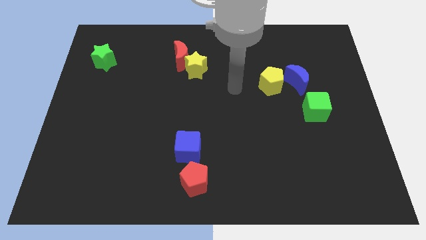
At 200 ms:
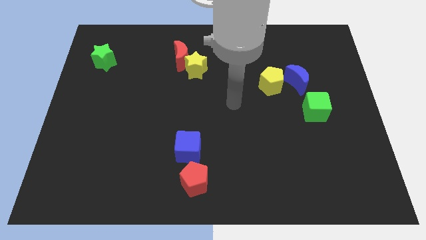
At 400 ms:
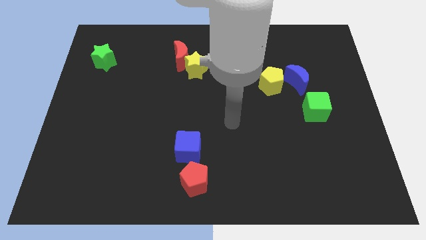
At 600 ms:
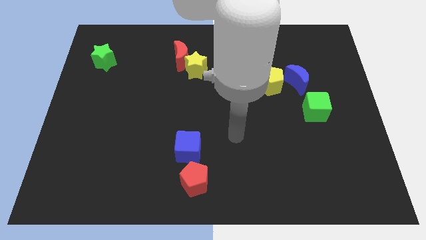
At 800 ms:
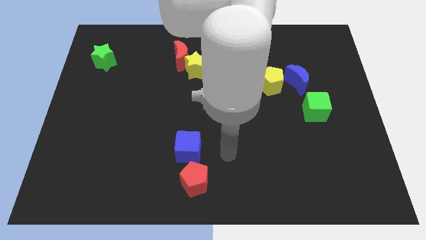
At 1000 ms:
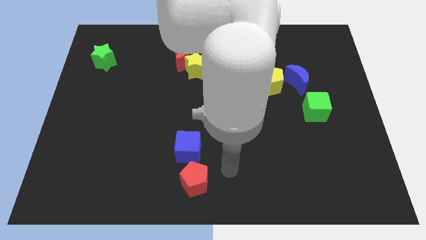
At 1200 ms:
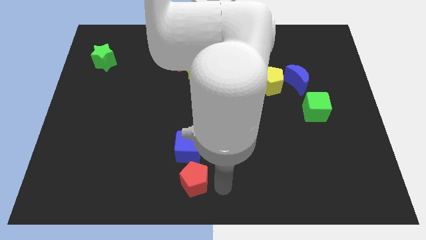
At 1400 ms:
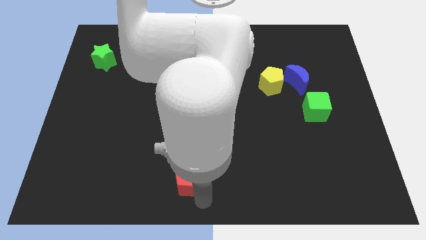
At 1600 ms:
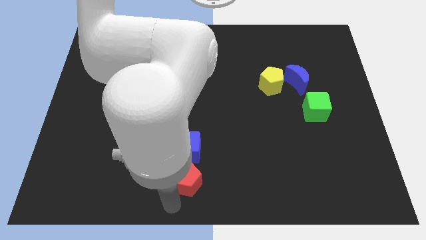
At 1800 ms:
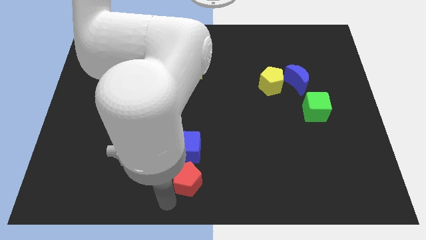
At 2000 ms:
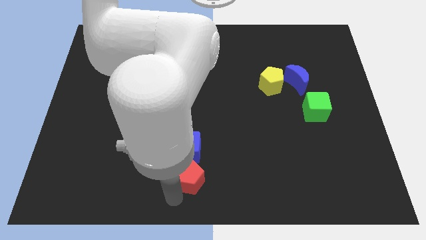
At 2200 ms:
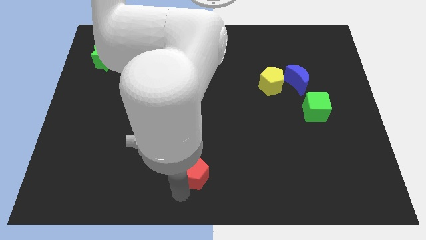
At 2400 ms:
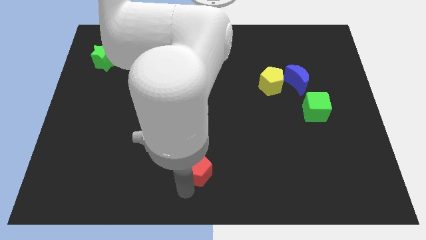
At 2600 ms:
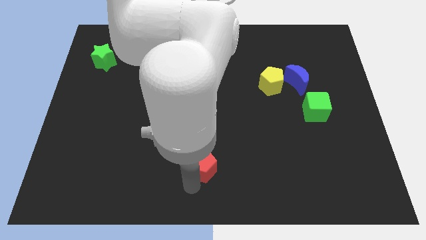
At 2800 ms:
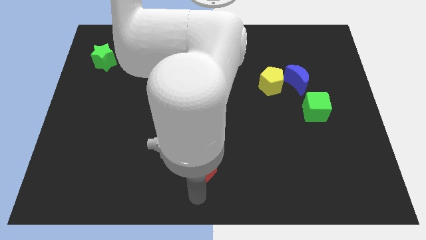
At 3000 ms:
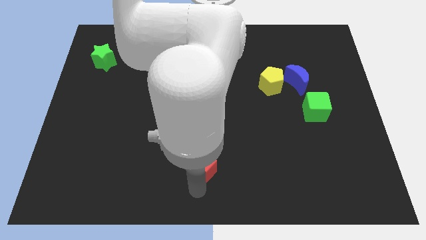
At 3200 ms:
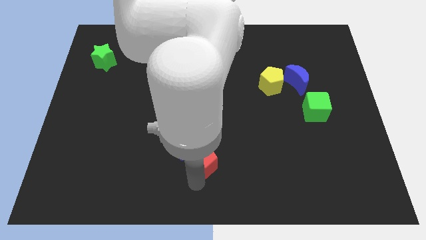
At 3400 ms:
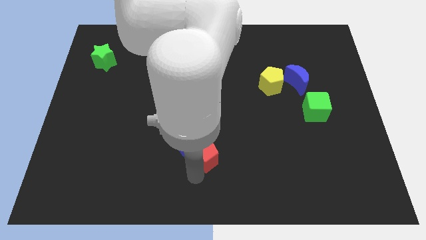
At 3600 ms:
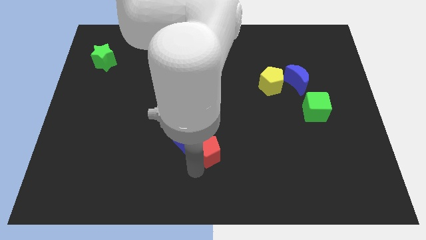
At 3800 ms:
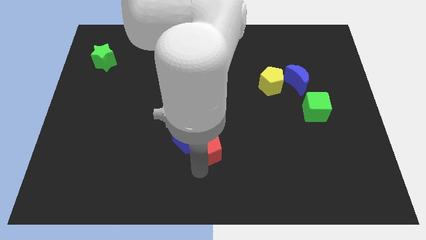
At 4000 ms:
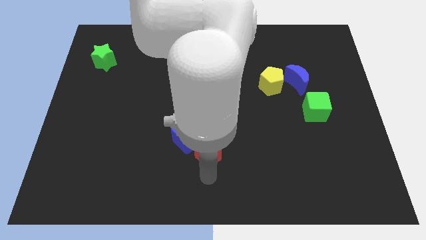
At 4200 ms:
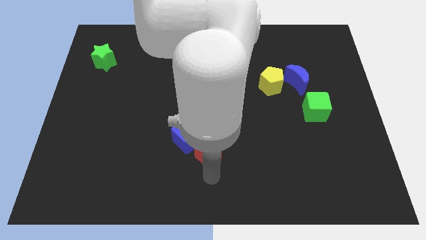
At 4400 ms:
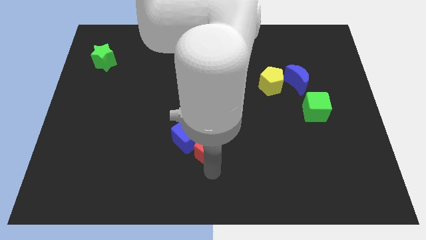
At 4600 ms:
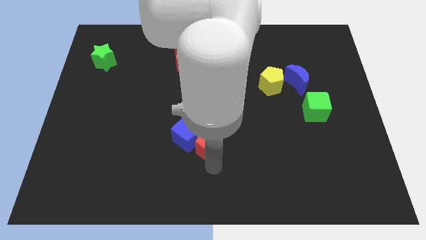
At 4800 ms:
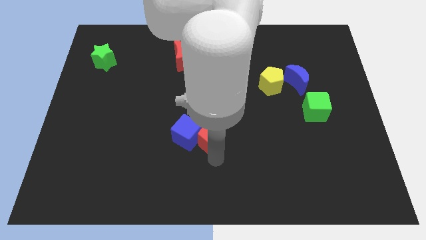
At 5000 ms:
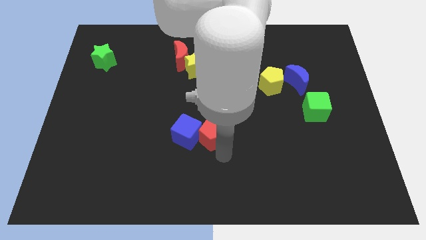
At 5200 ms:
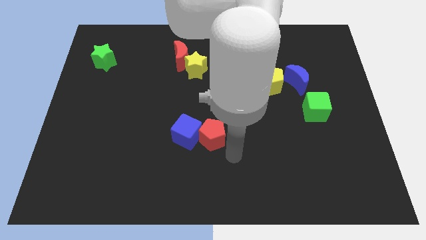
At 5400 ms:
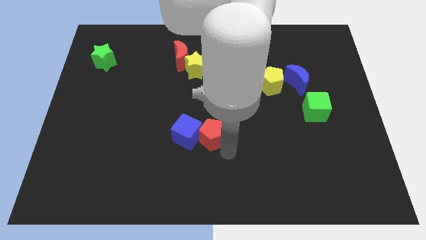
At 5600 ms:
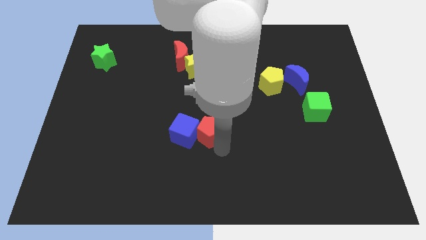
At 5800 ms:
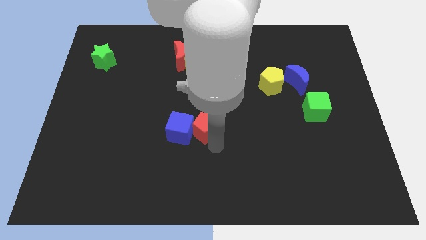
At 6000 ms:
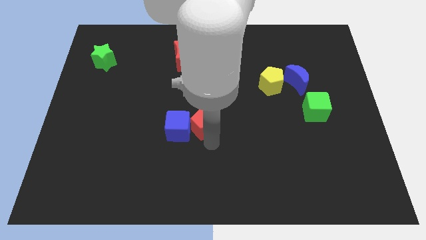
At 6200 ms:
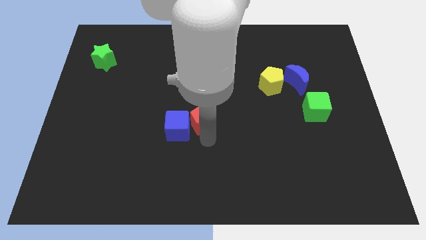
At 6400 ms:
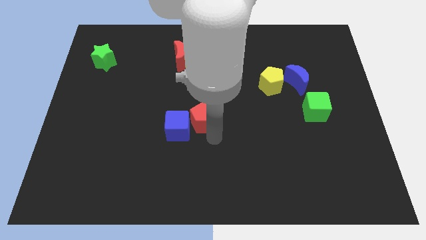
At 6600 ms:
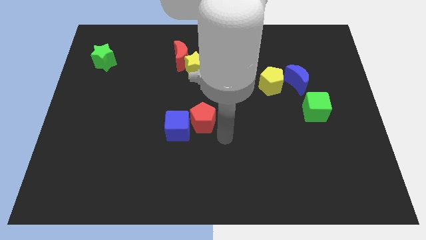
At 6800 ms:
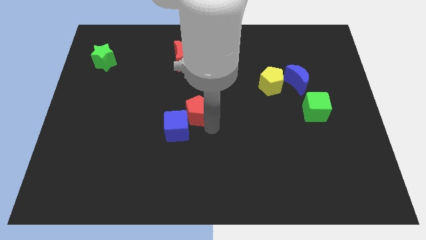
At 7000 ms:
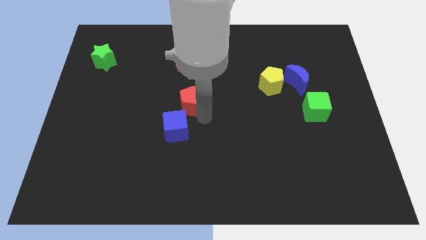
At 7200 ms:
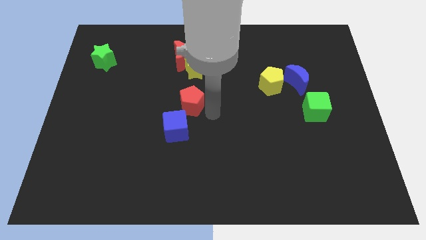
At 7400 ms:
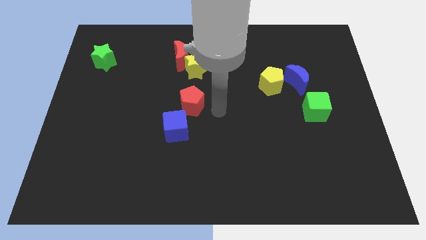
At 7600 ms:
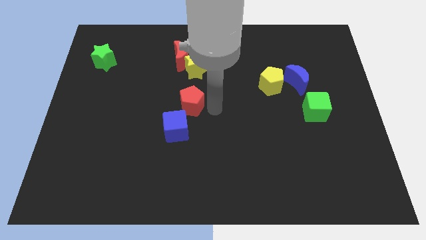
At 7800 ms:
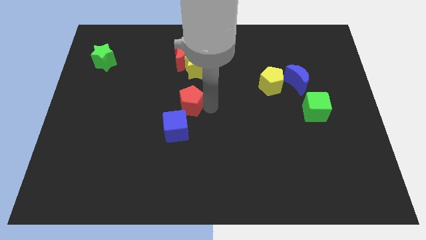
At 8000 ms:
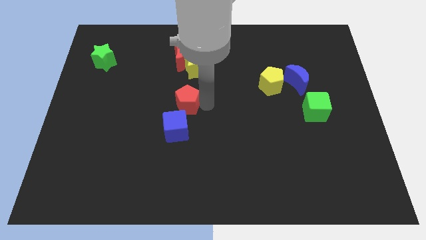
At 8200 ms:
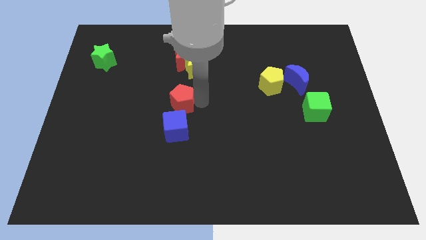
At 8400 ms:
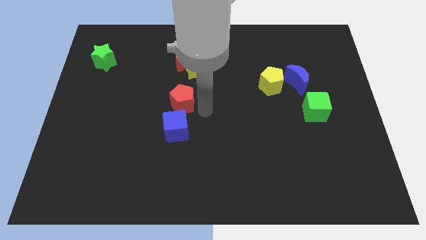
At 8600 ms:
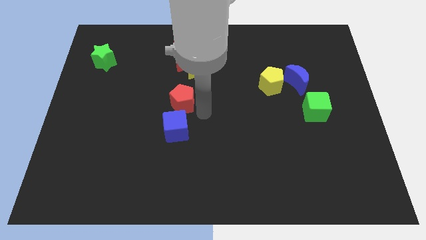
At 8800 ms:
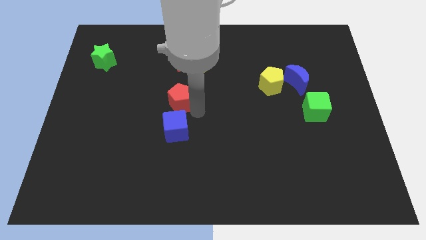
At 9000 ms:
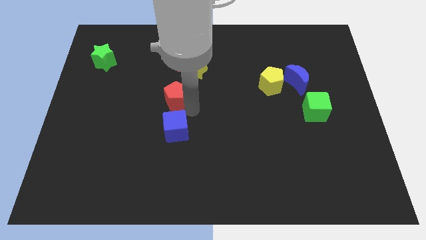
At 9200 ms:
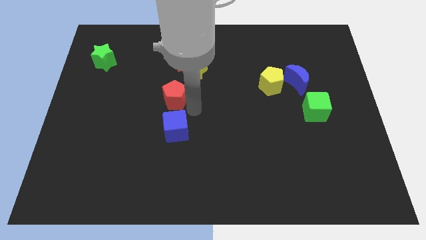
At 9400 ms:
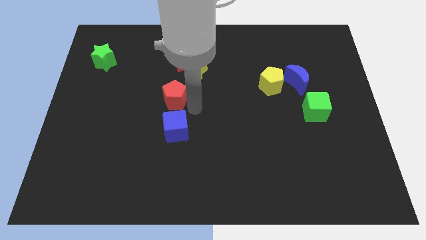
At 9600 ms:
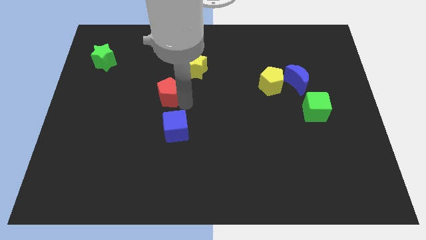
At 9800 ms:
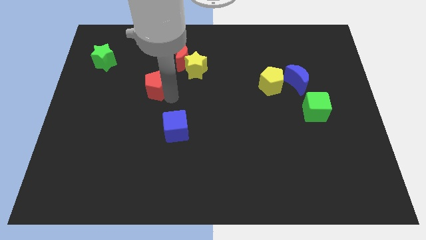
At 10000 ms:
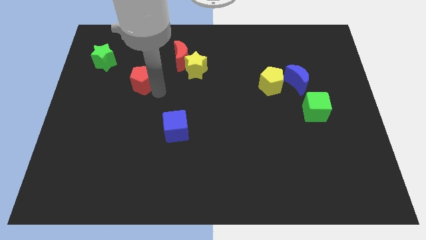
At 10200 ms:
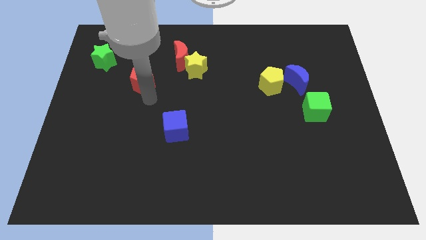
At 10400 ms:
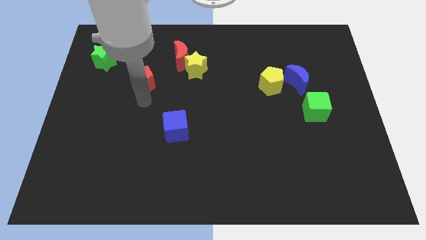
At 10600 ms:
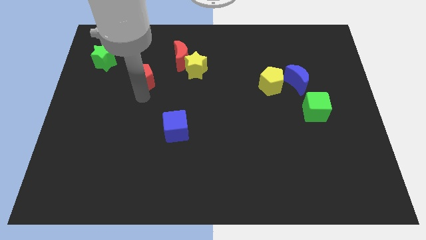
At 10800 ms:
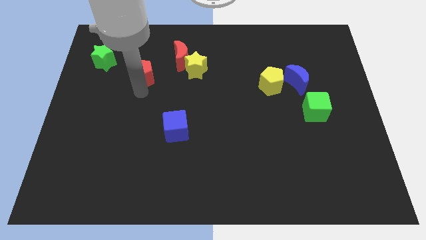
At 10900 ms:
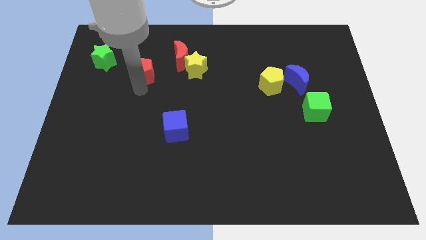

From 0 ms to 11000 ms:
slide the red pentagon to the right of the green star

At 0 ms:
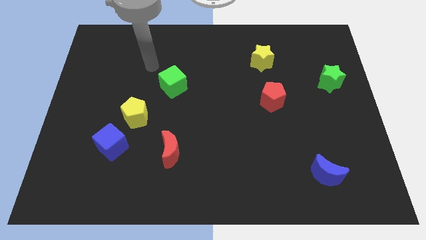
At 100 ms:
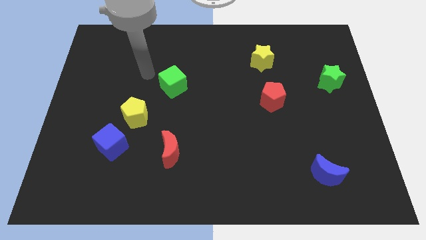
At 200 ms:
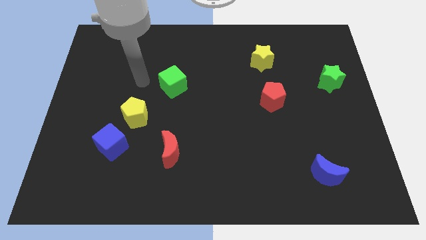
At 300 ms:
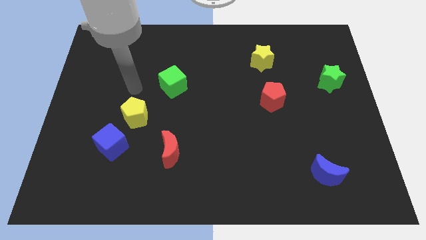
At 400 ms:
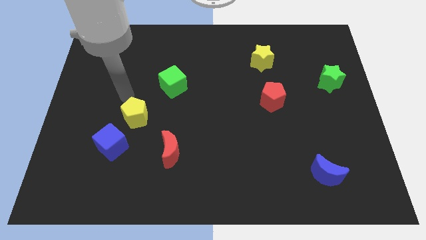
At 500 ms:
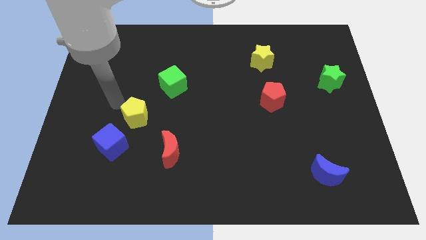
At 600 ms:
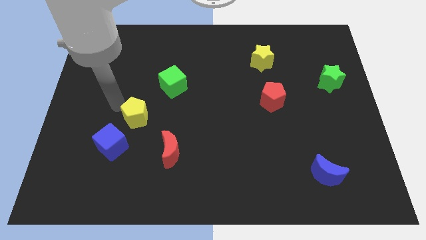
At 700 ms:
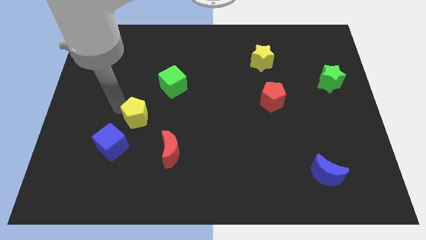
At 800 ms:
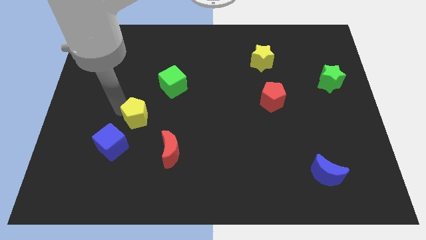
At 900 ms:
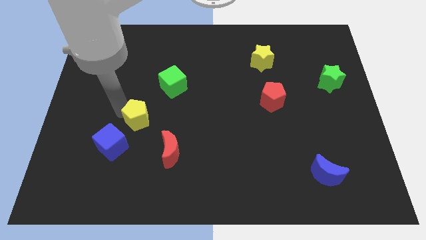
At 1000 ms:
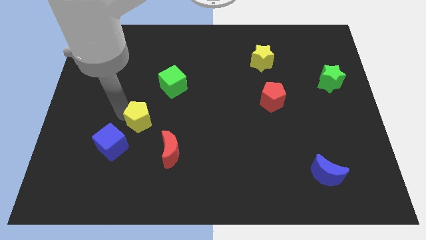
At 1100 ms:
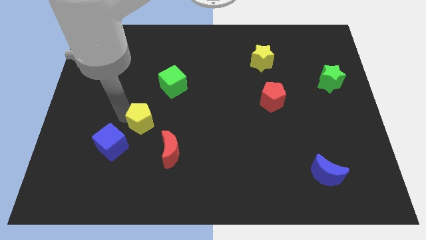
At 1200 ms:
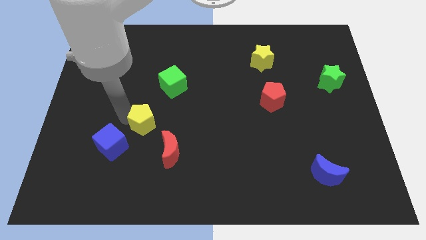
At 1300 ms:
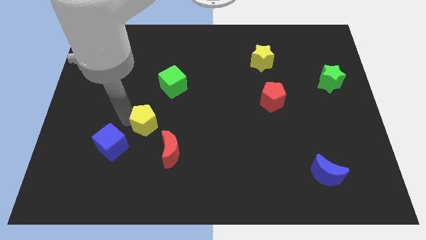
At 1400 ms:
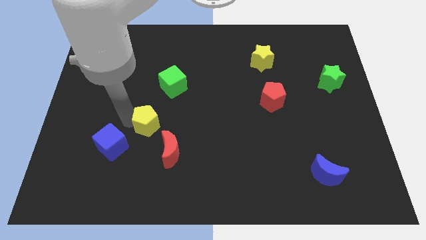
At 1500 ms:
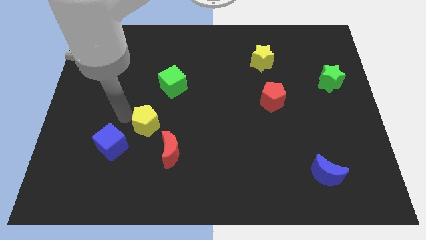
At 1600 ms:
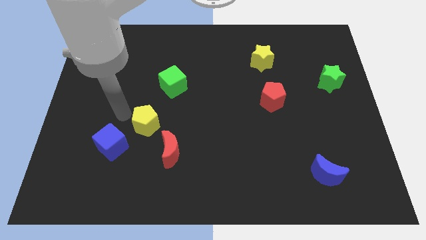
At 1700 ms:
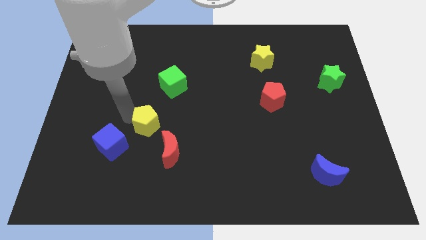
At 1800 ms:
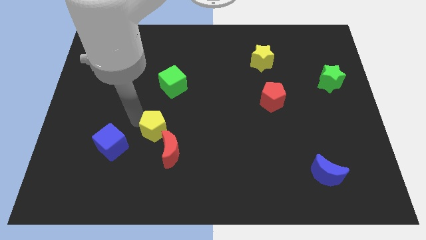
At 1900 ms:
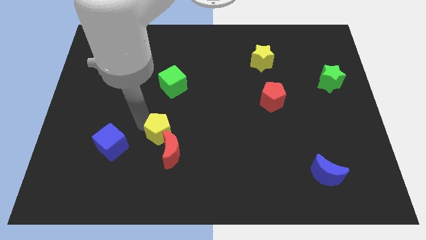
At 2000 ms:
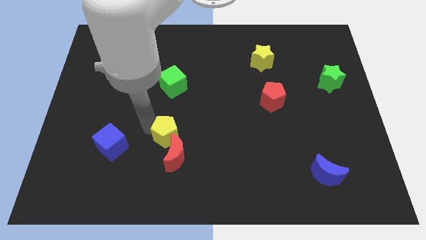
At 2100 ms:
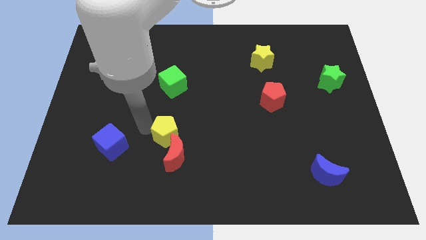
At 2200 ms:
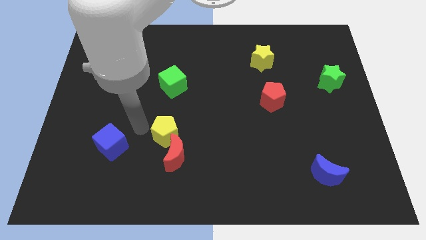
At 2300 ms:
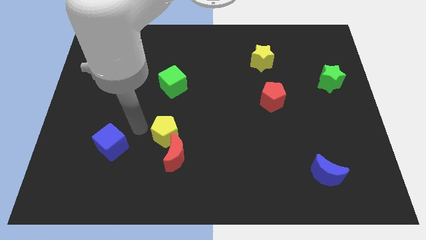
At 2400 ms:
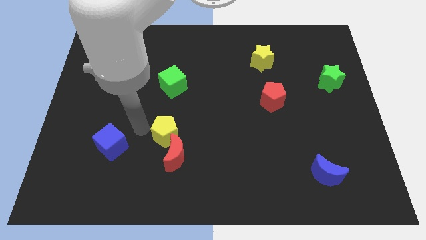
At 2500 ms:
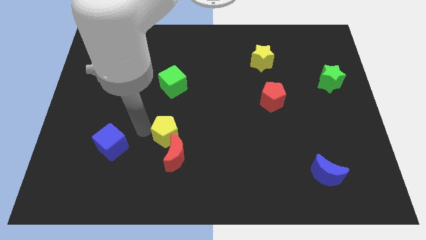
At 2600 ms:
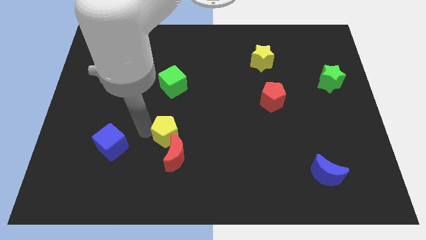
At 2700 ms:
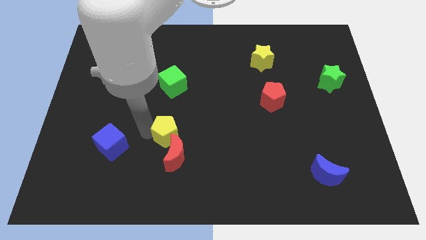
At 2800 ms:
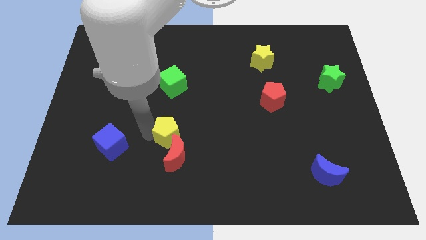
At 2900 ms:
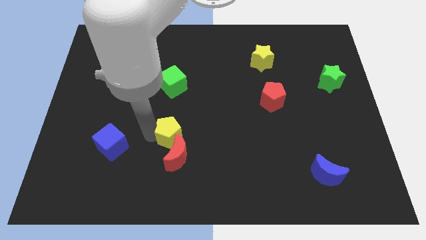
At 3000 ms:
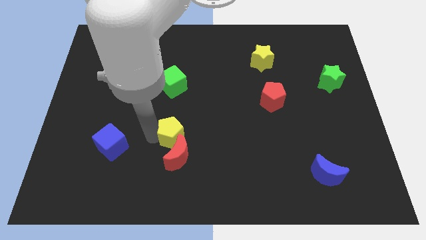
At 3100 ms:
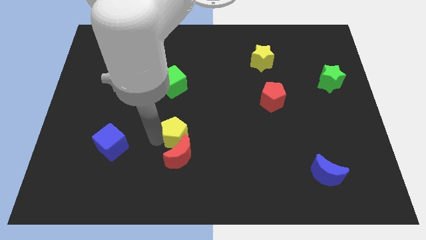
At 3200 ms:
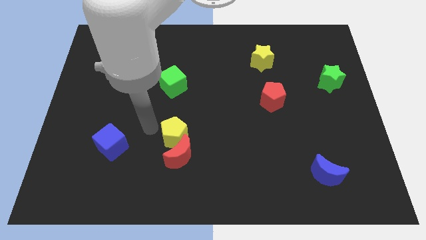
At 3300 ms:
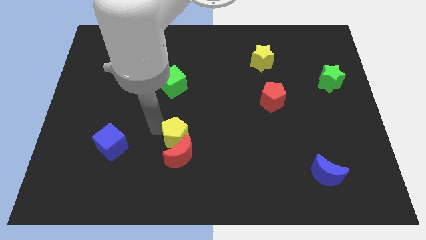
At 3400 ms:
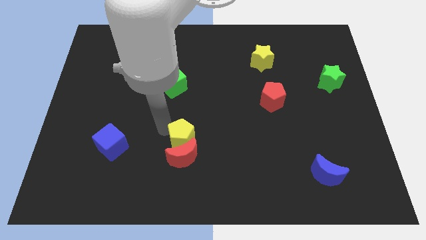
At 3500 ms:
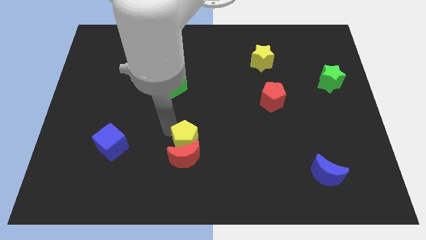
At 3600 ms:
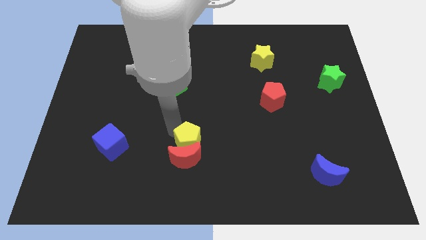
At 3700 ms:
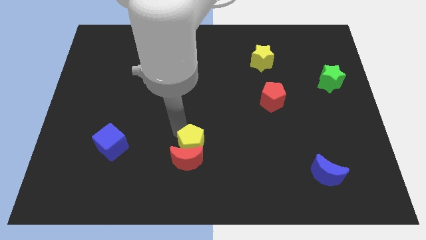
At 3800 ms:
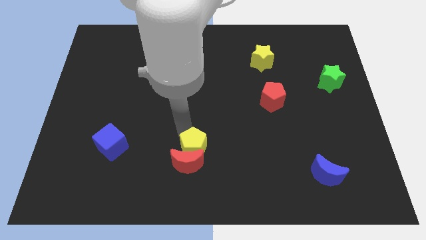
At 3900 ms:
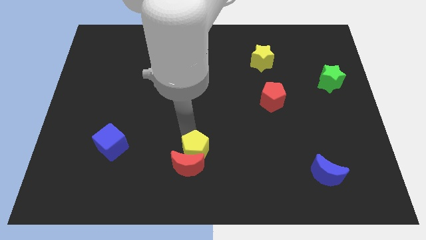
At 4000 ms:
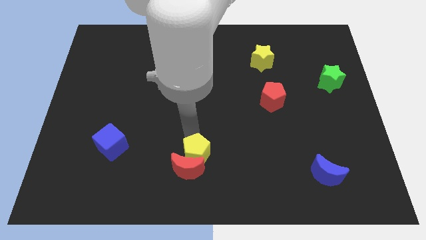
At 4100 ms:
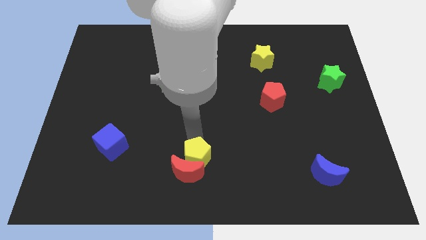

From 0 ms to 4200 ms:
put the yellow pentagon to the right side of the red moon
